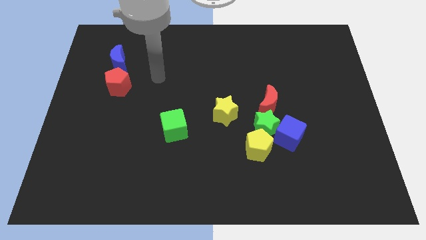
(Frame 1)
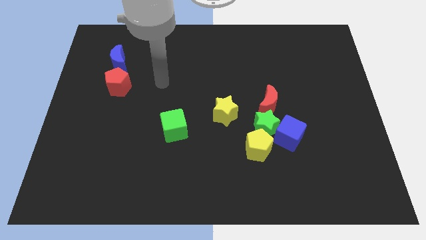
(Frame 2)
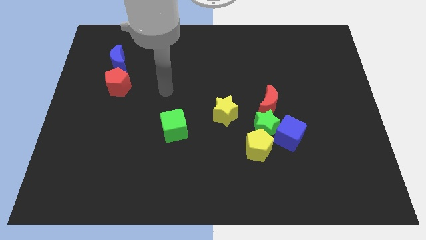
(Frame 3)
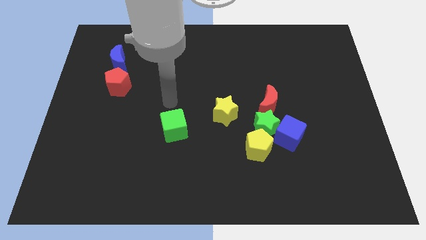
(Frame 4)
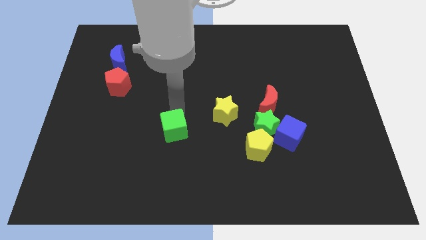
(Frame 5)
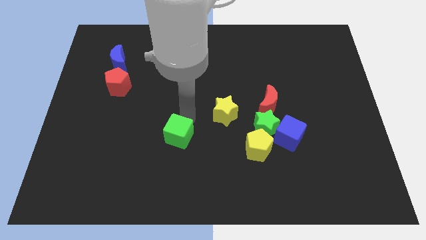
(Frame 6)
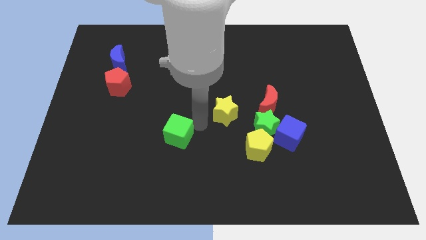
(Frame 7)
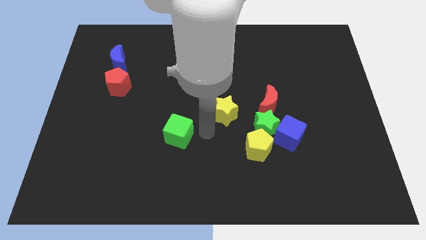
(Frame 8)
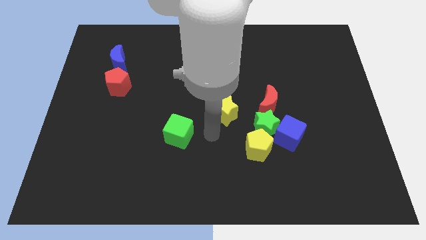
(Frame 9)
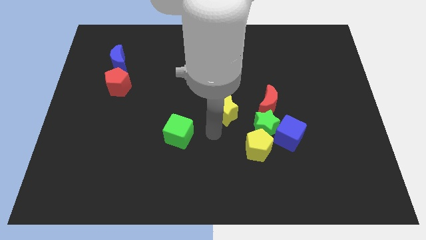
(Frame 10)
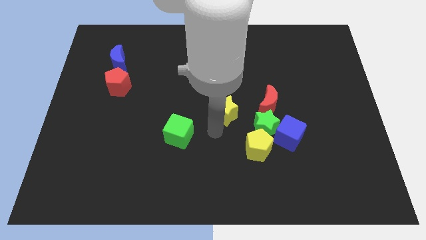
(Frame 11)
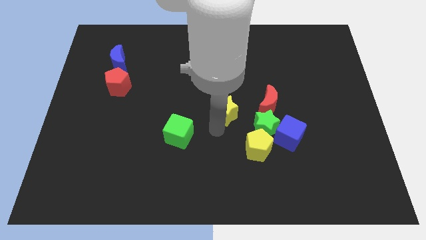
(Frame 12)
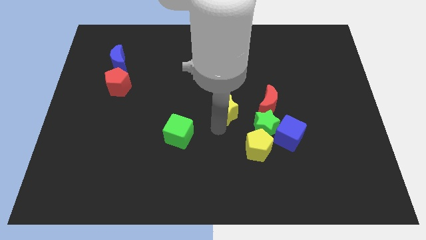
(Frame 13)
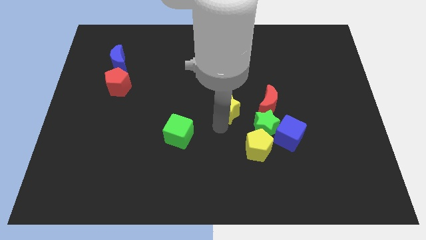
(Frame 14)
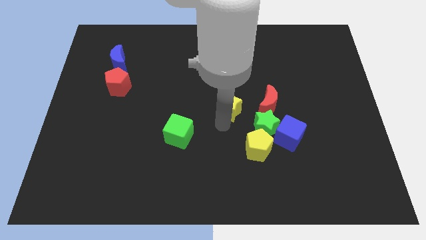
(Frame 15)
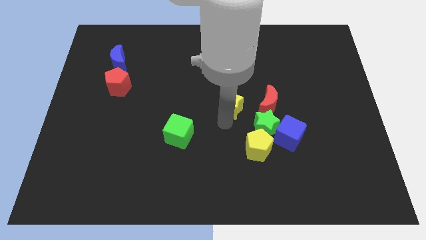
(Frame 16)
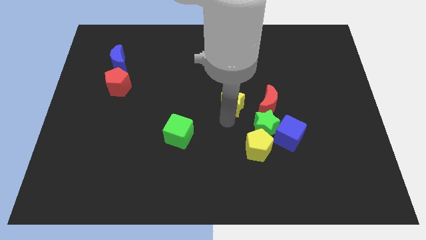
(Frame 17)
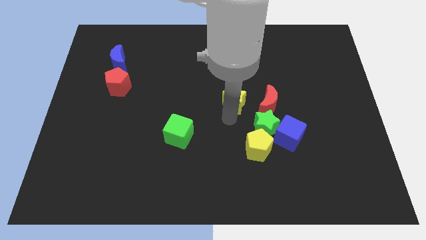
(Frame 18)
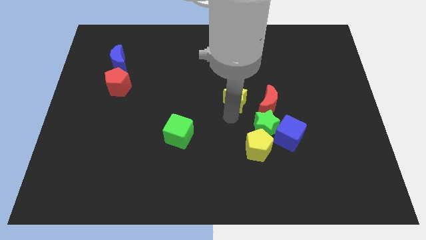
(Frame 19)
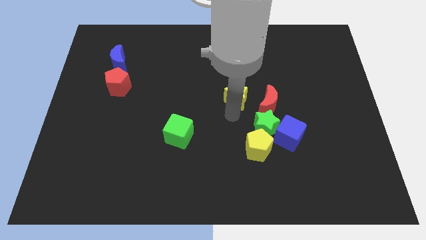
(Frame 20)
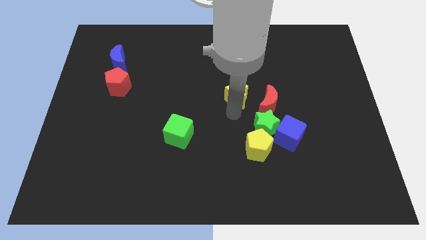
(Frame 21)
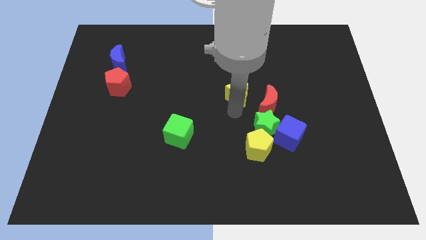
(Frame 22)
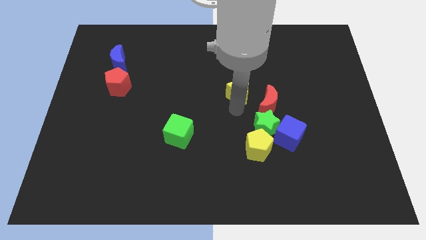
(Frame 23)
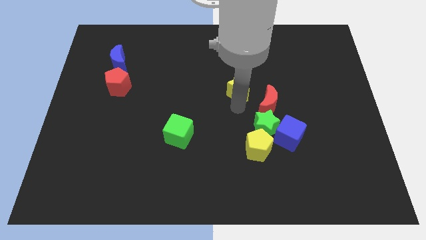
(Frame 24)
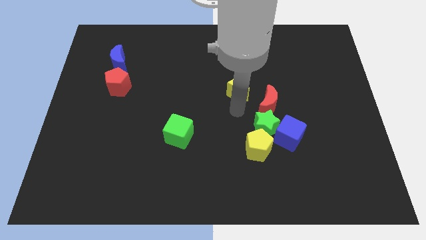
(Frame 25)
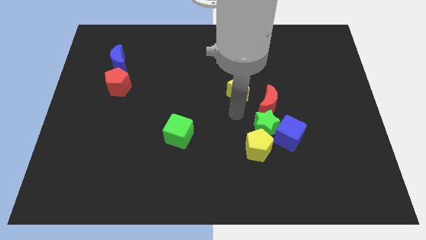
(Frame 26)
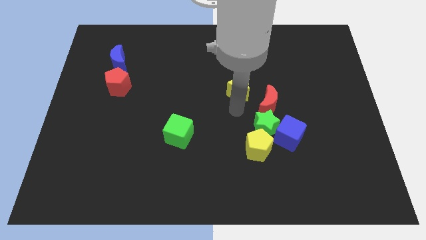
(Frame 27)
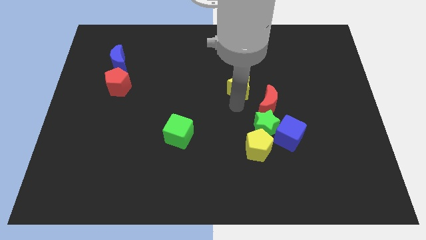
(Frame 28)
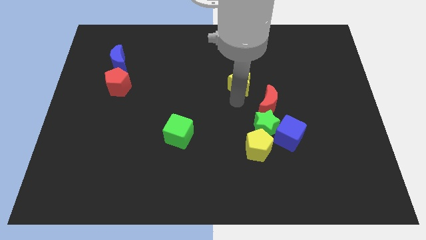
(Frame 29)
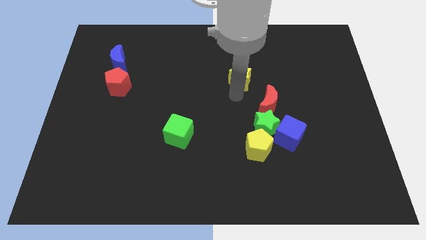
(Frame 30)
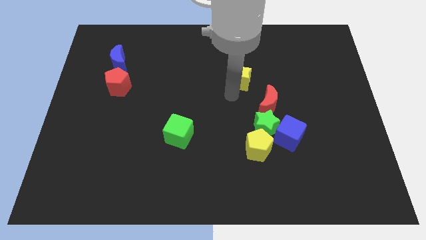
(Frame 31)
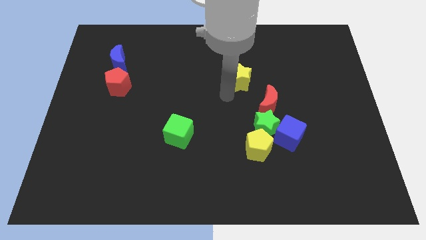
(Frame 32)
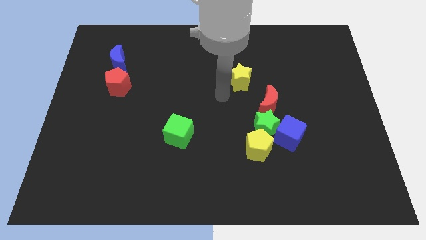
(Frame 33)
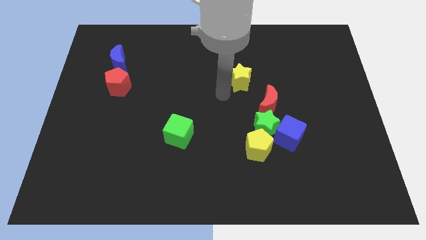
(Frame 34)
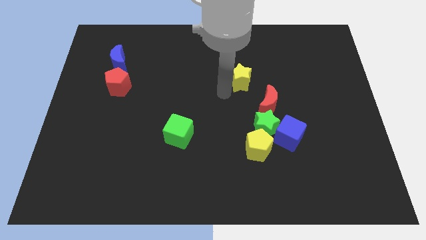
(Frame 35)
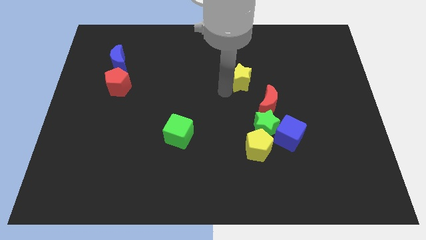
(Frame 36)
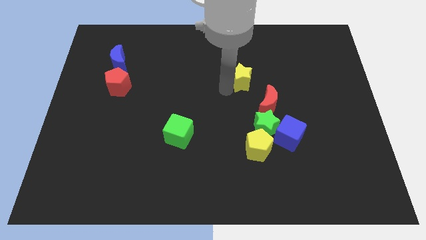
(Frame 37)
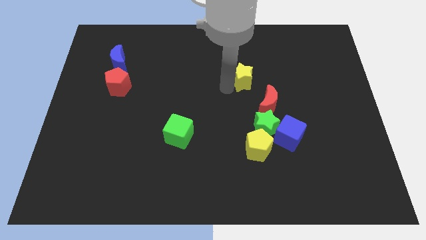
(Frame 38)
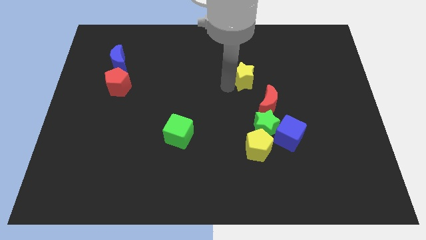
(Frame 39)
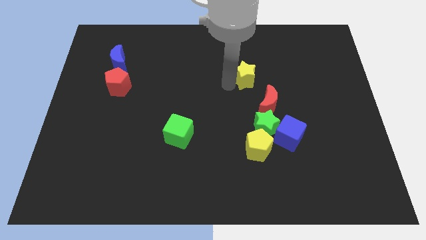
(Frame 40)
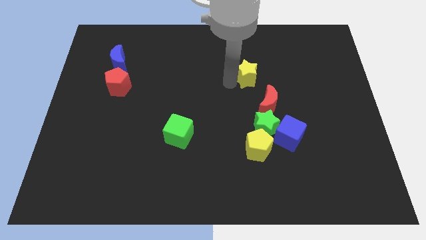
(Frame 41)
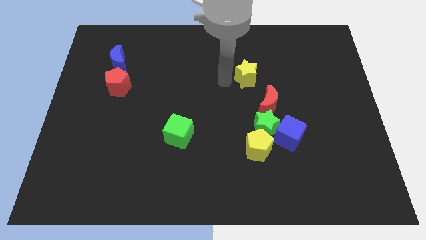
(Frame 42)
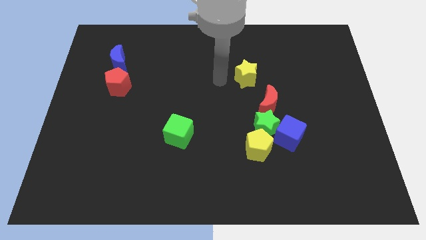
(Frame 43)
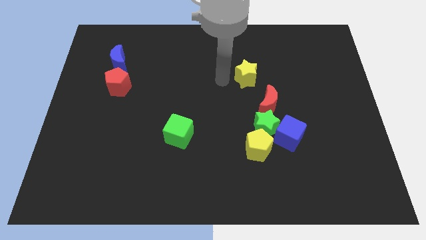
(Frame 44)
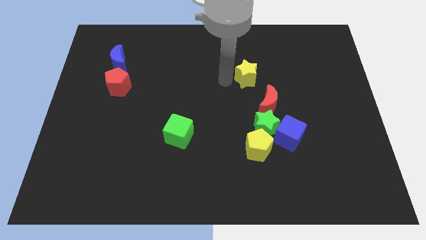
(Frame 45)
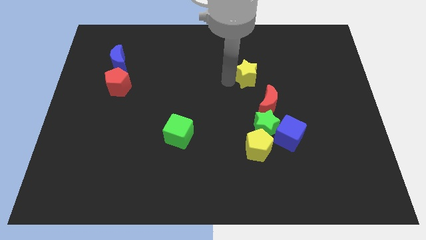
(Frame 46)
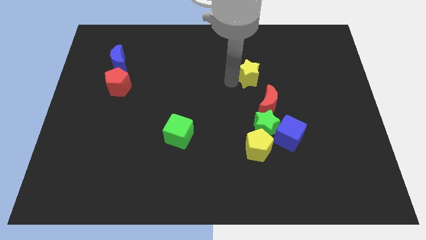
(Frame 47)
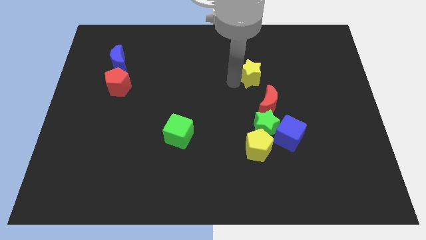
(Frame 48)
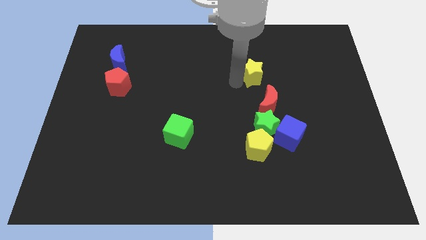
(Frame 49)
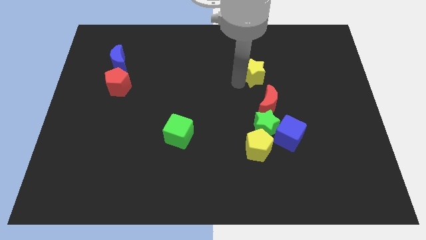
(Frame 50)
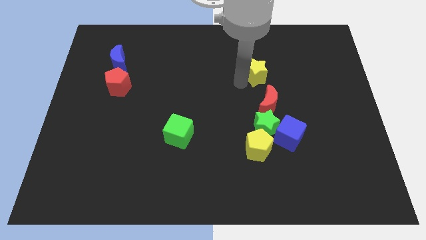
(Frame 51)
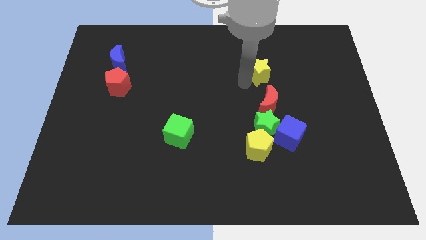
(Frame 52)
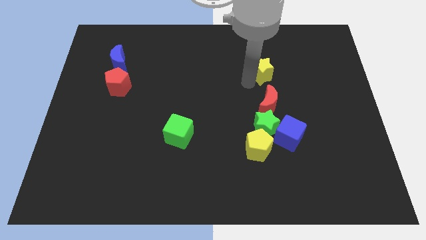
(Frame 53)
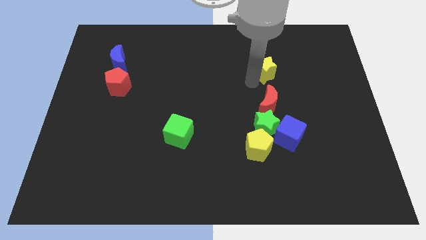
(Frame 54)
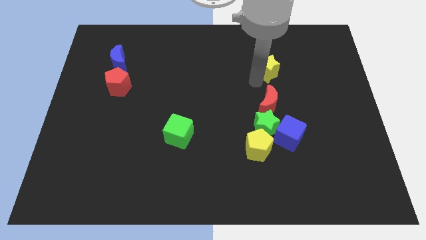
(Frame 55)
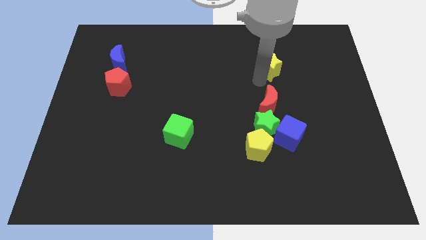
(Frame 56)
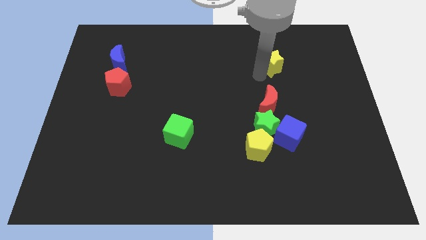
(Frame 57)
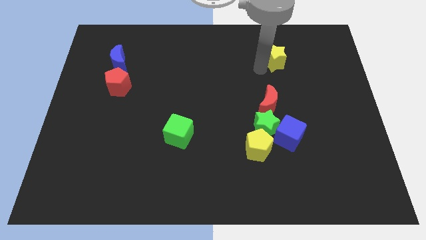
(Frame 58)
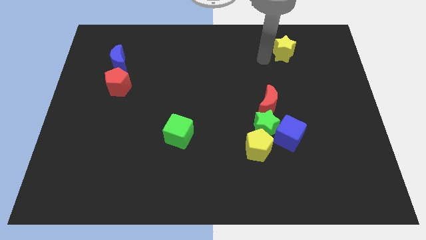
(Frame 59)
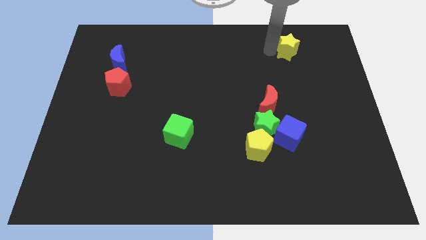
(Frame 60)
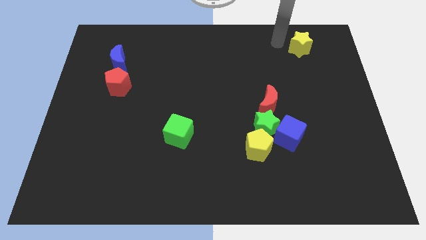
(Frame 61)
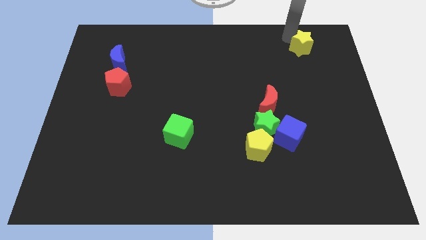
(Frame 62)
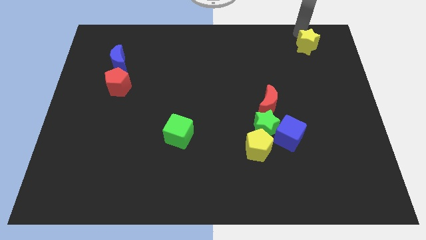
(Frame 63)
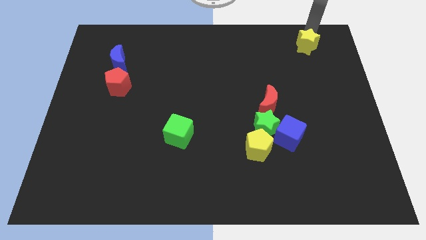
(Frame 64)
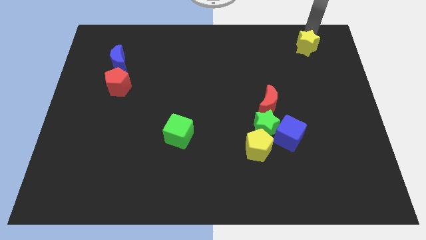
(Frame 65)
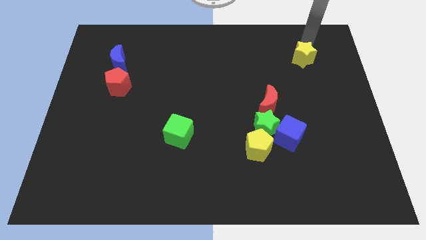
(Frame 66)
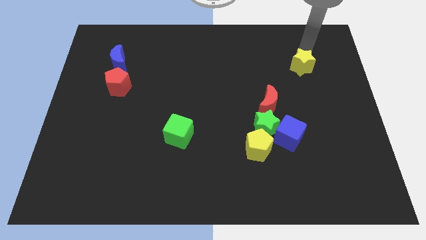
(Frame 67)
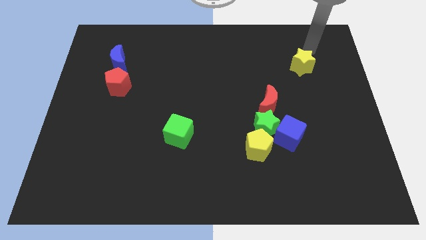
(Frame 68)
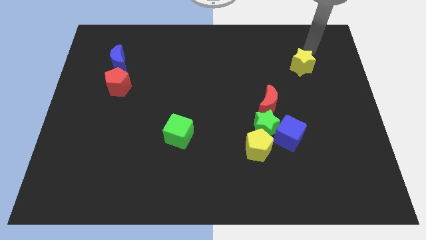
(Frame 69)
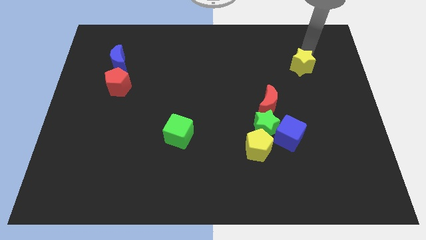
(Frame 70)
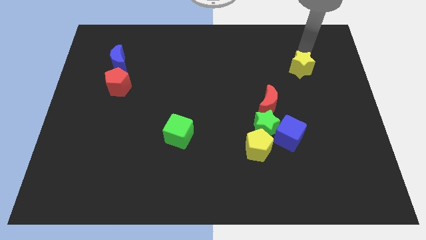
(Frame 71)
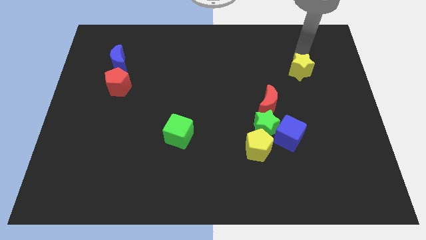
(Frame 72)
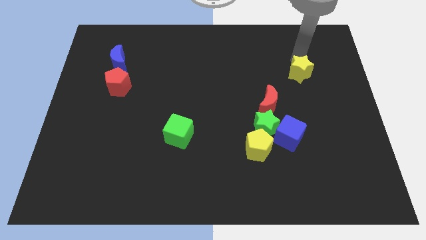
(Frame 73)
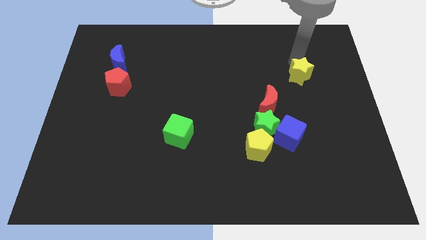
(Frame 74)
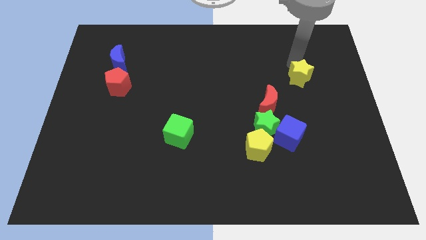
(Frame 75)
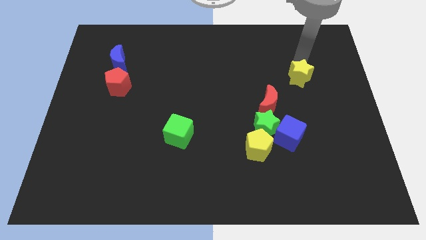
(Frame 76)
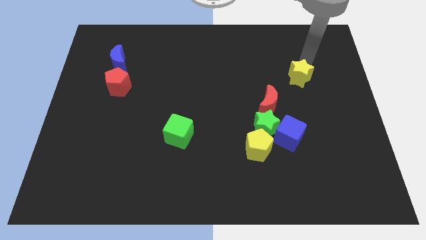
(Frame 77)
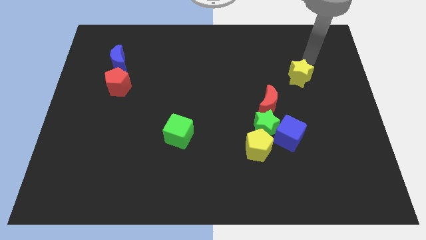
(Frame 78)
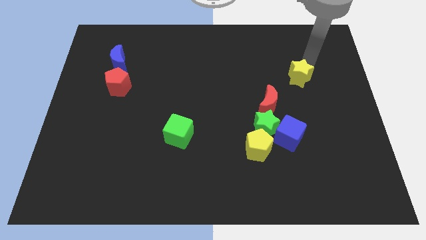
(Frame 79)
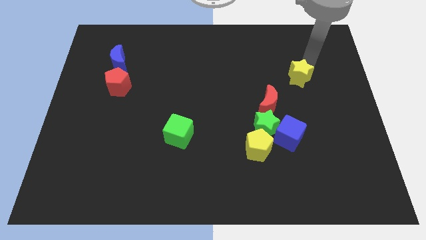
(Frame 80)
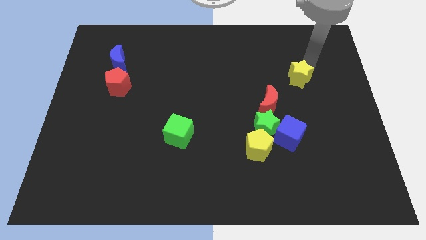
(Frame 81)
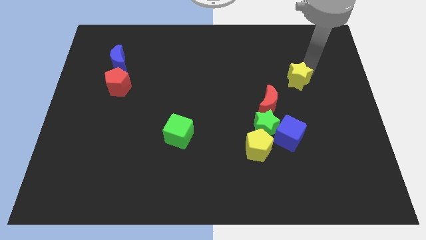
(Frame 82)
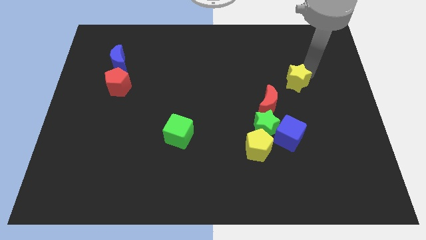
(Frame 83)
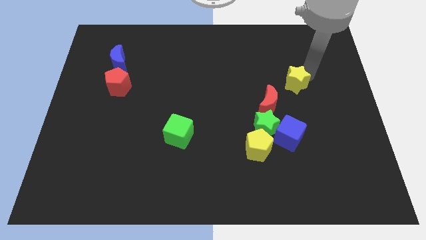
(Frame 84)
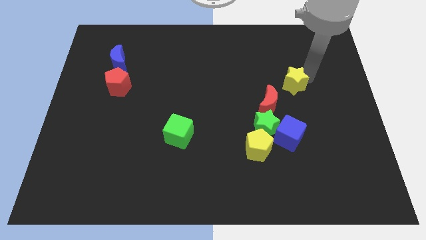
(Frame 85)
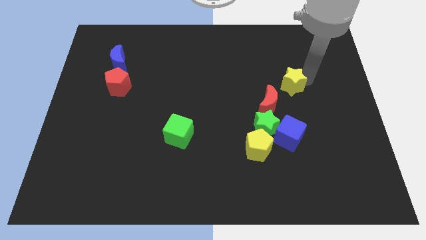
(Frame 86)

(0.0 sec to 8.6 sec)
put the yellow star to the top side of the blue cube

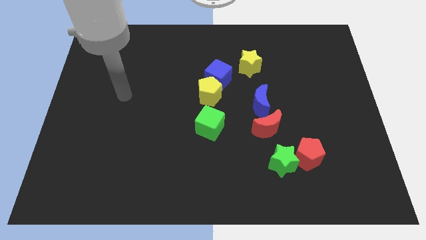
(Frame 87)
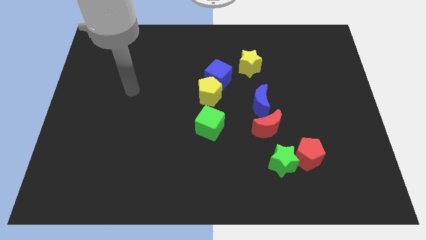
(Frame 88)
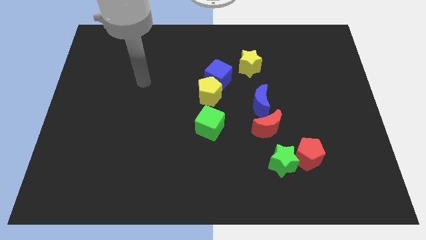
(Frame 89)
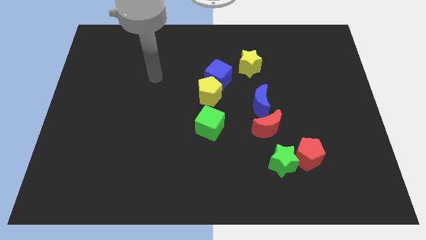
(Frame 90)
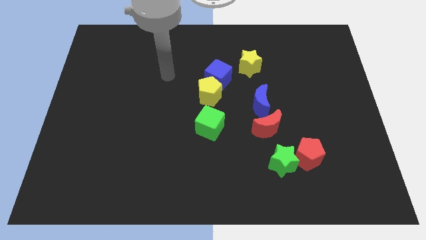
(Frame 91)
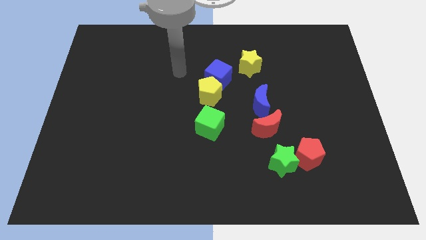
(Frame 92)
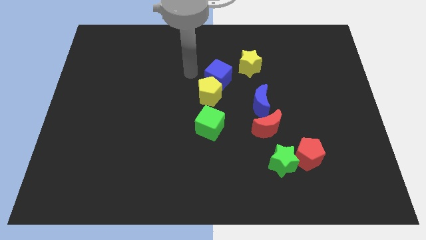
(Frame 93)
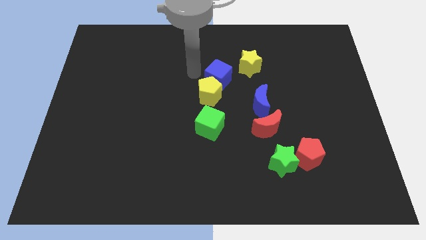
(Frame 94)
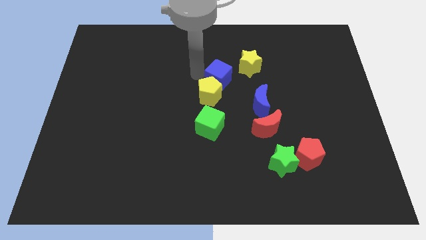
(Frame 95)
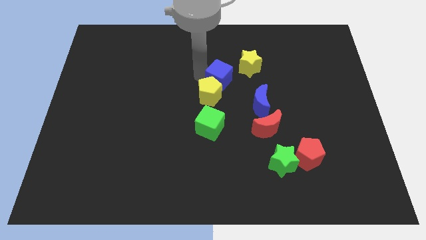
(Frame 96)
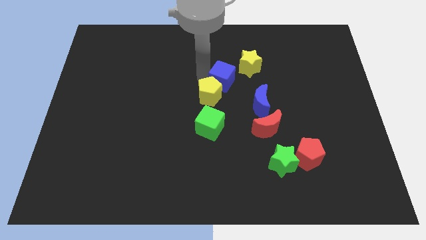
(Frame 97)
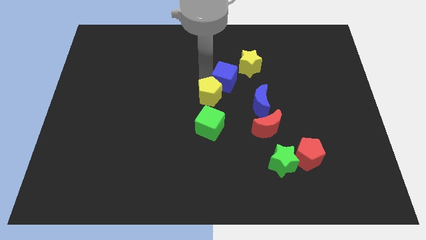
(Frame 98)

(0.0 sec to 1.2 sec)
push the blue cube right of the yellow pentagon
